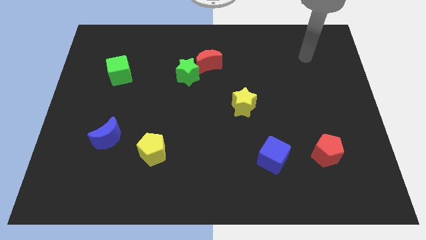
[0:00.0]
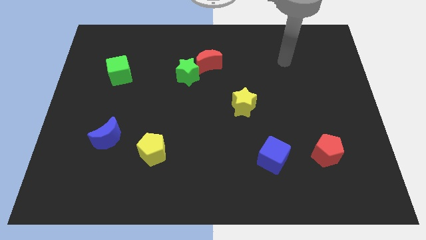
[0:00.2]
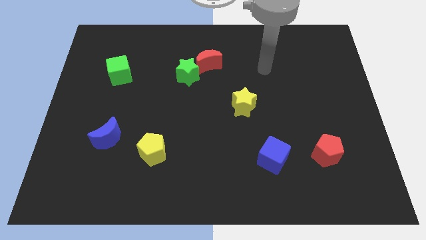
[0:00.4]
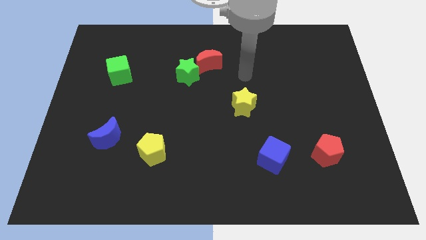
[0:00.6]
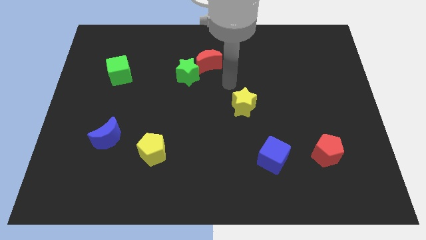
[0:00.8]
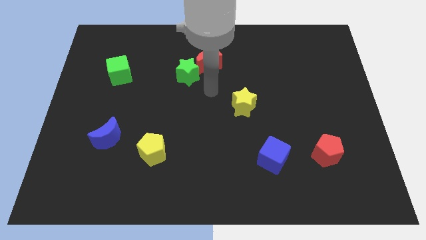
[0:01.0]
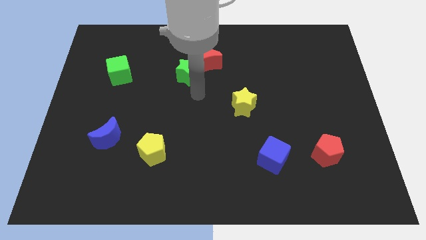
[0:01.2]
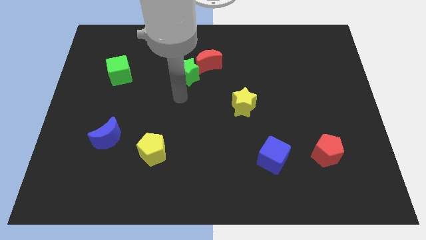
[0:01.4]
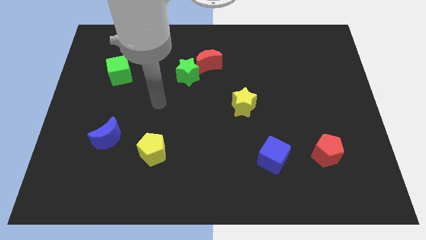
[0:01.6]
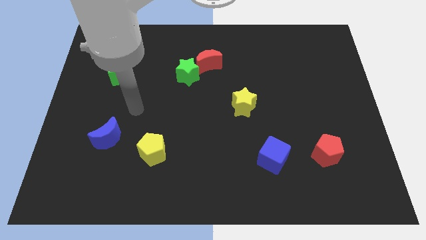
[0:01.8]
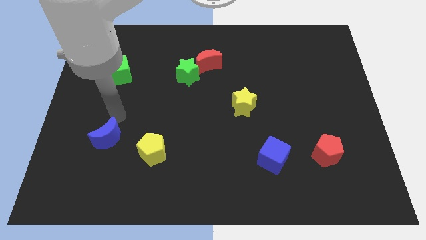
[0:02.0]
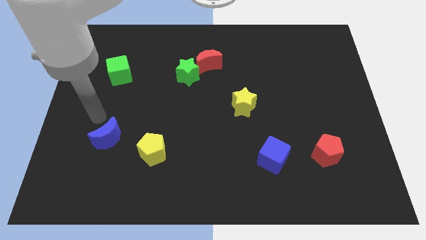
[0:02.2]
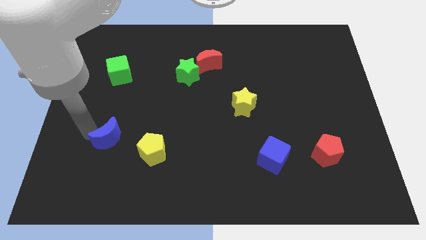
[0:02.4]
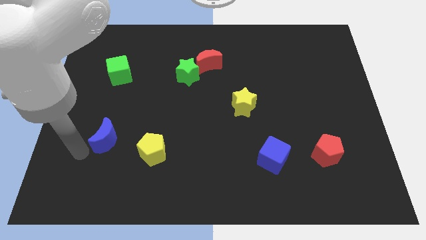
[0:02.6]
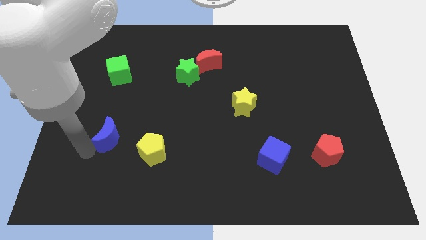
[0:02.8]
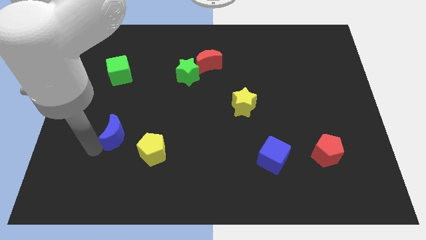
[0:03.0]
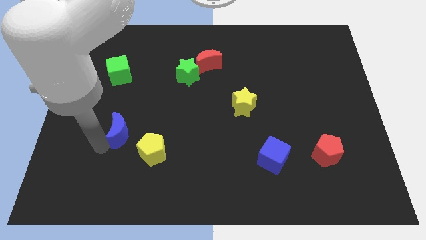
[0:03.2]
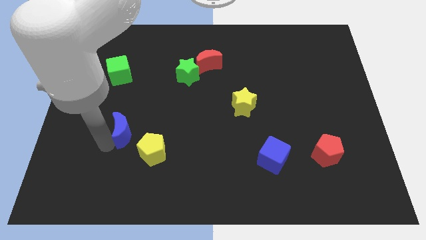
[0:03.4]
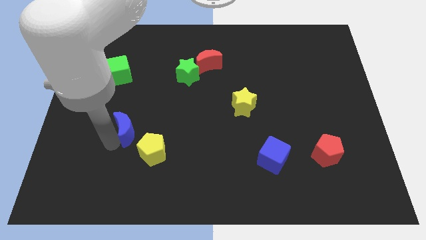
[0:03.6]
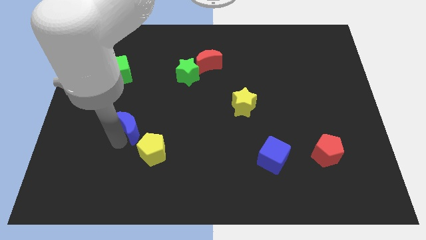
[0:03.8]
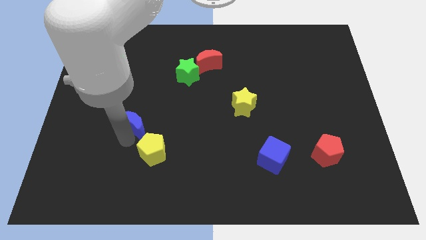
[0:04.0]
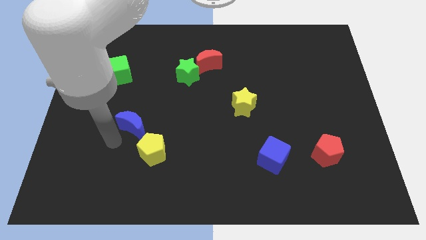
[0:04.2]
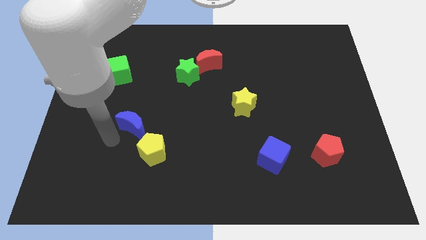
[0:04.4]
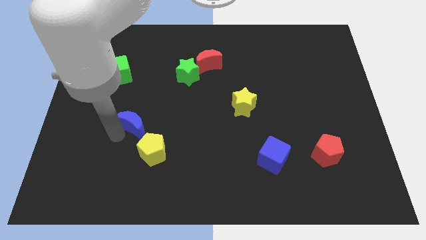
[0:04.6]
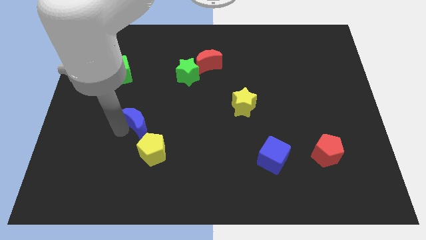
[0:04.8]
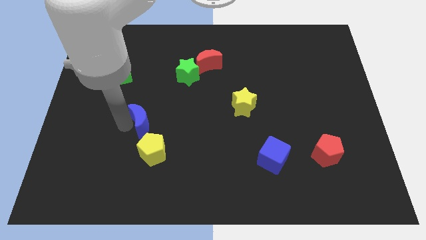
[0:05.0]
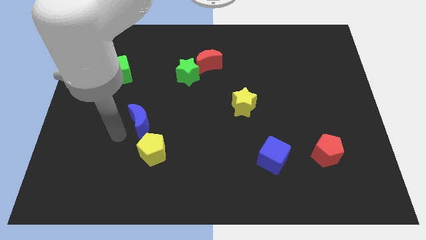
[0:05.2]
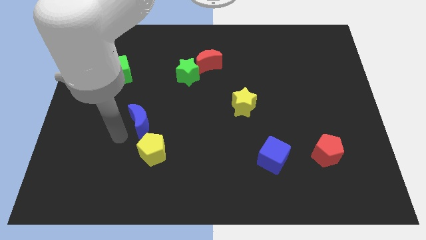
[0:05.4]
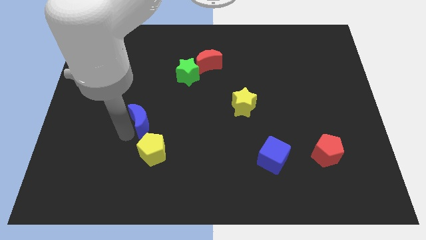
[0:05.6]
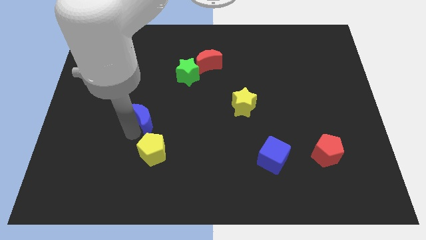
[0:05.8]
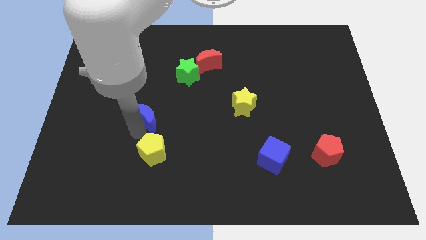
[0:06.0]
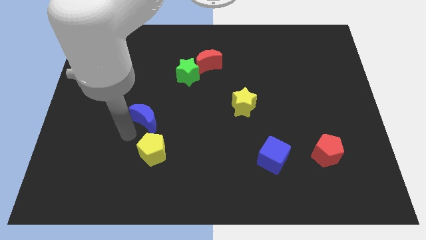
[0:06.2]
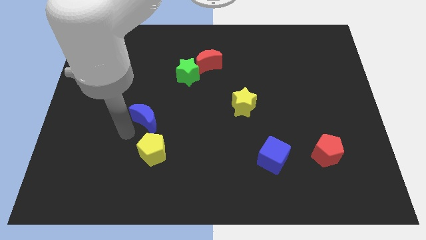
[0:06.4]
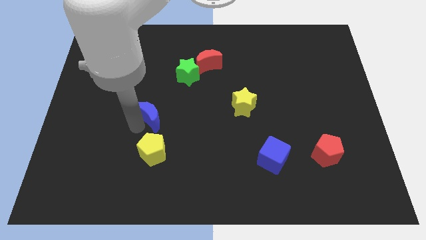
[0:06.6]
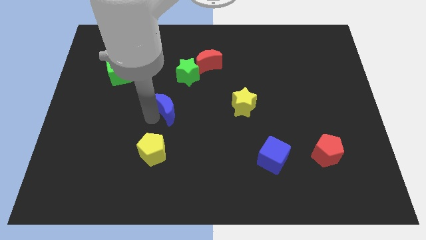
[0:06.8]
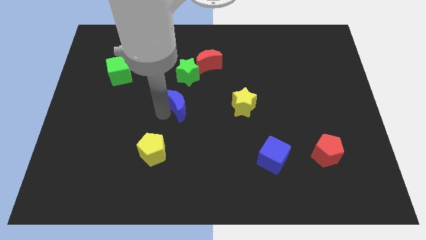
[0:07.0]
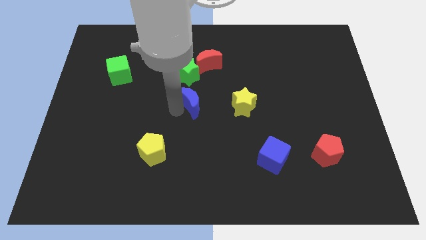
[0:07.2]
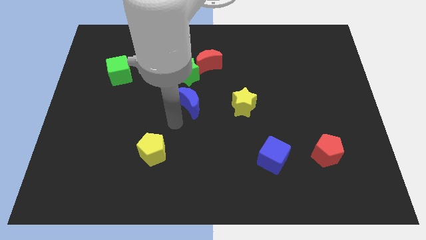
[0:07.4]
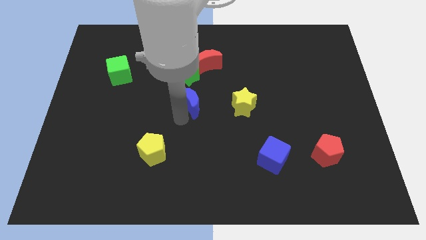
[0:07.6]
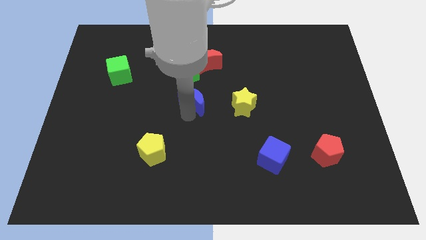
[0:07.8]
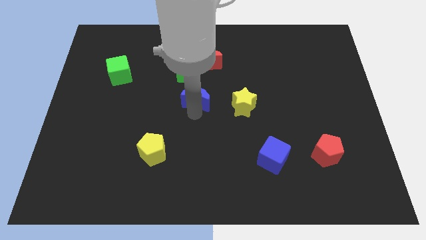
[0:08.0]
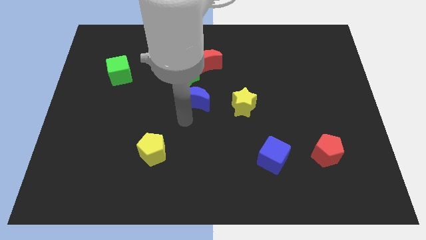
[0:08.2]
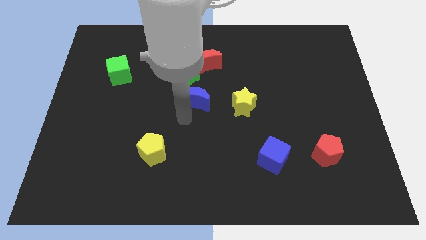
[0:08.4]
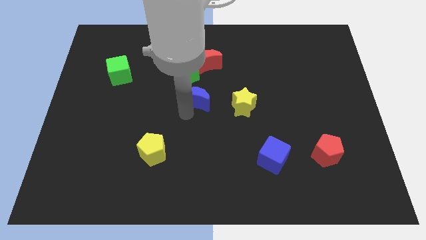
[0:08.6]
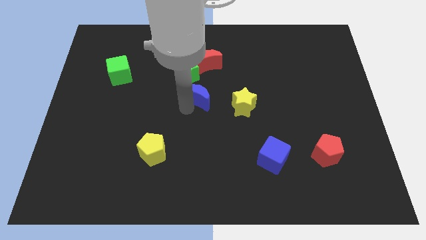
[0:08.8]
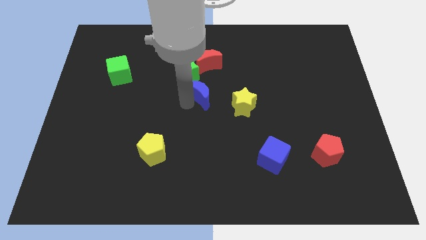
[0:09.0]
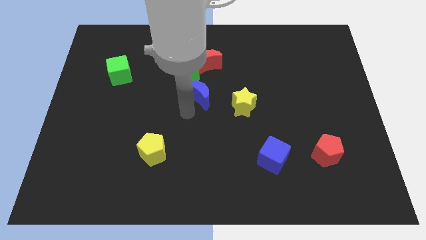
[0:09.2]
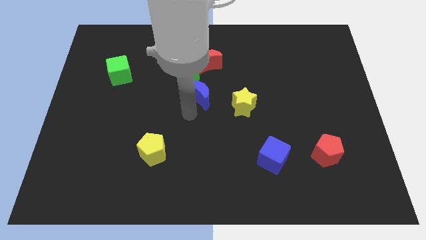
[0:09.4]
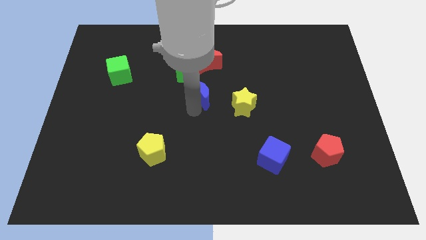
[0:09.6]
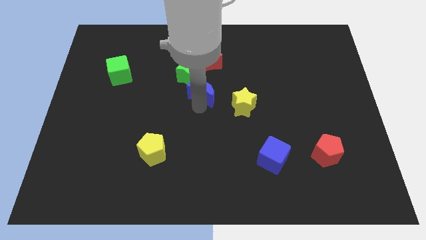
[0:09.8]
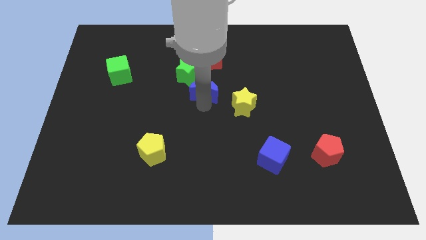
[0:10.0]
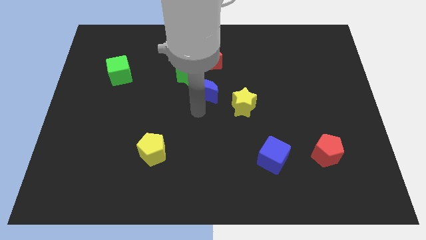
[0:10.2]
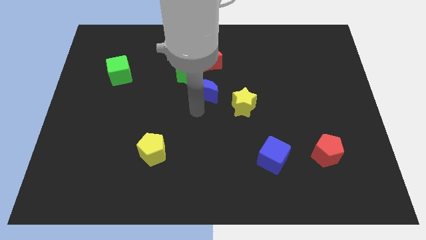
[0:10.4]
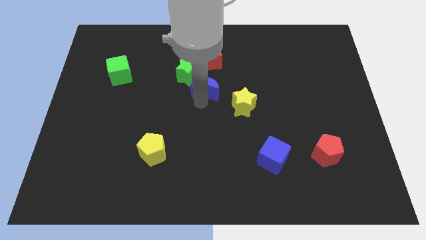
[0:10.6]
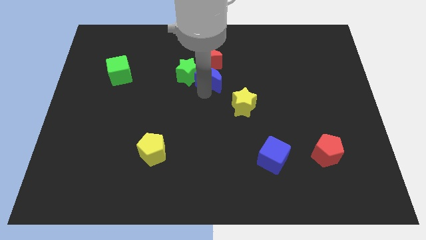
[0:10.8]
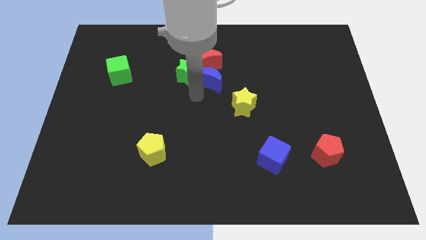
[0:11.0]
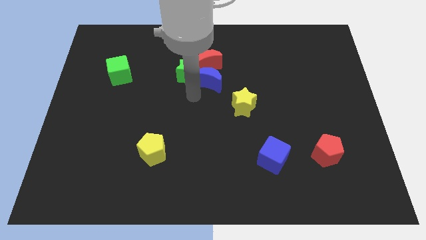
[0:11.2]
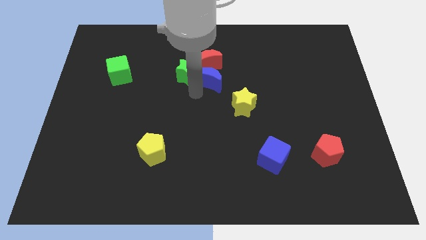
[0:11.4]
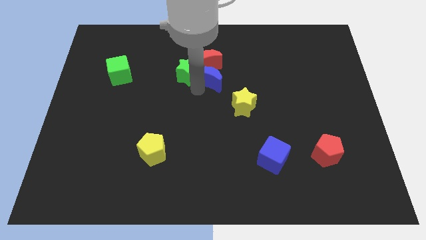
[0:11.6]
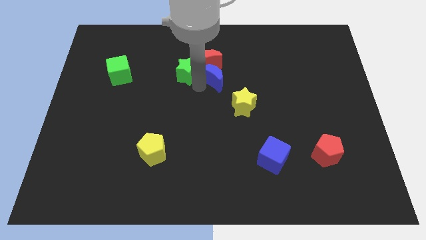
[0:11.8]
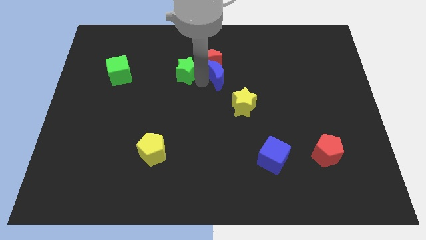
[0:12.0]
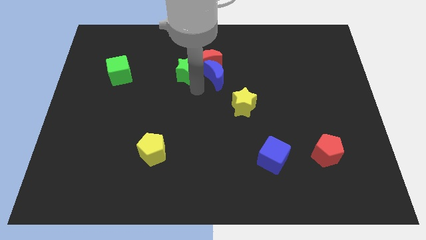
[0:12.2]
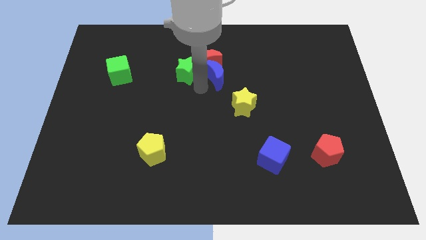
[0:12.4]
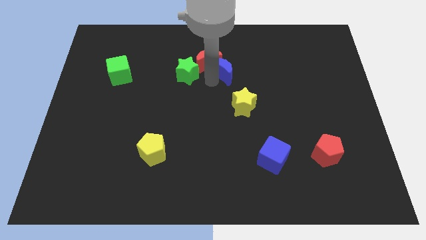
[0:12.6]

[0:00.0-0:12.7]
push the blue moon right of the red moon
